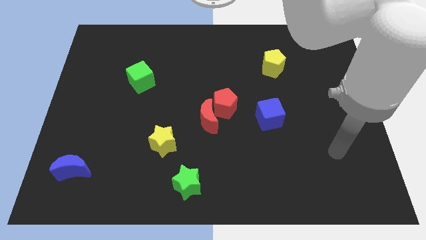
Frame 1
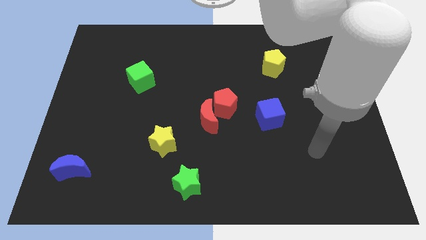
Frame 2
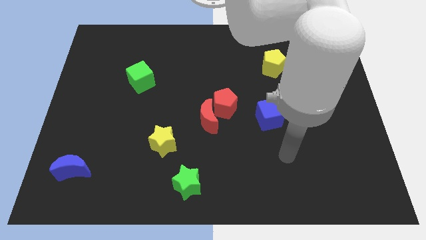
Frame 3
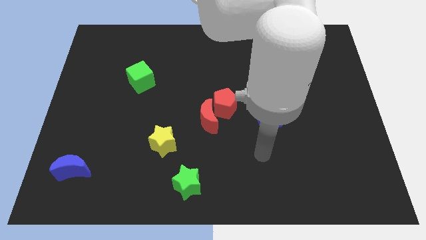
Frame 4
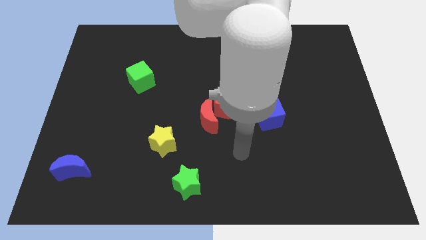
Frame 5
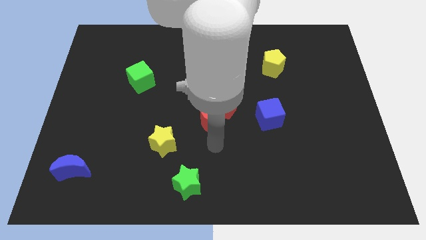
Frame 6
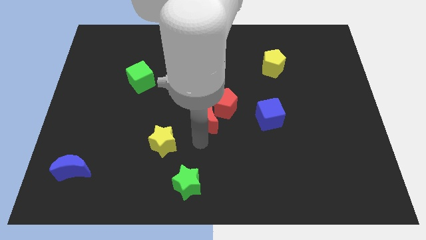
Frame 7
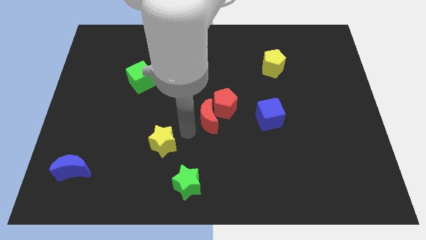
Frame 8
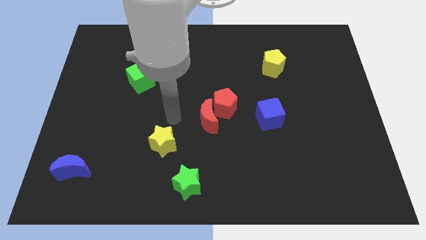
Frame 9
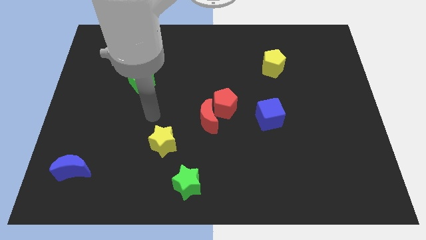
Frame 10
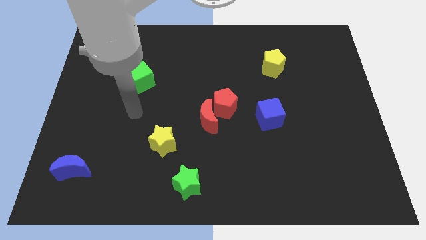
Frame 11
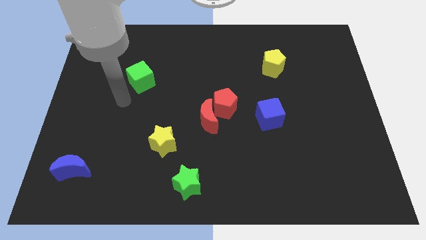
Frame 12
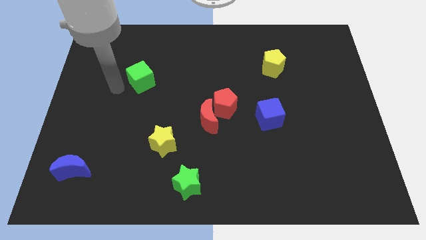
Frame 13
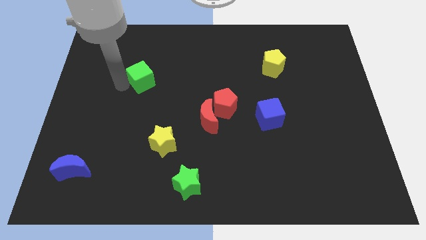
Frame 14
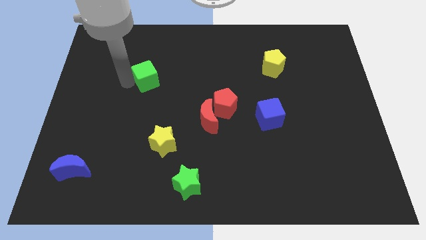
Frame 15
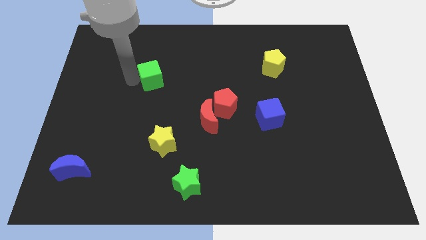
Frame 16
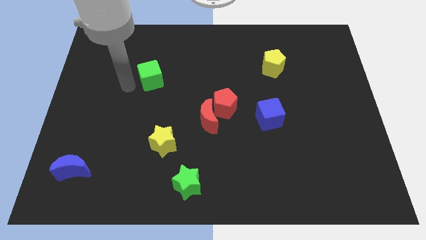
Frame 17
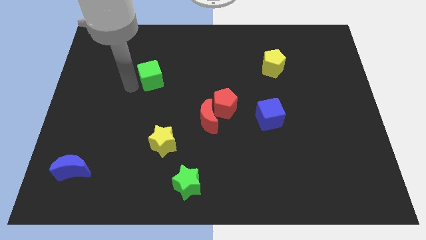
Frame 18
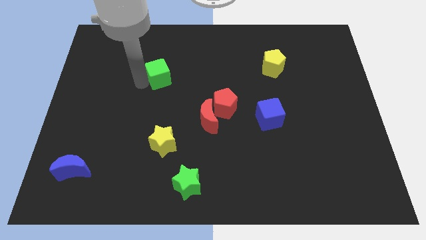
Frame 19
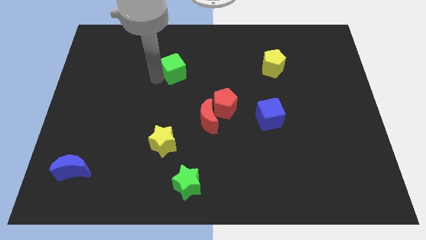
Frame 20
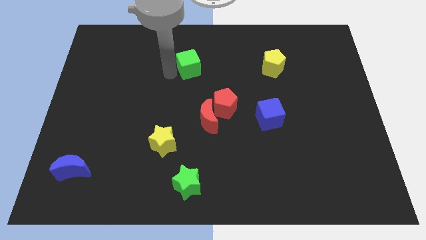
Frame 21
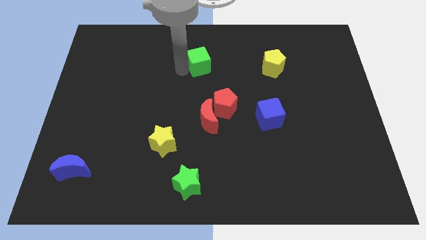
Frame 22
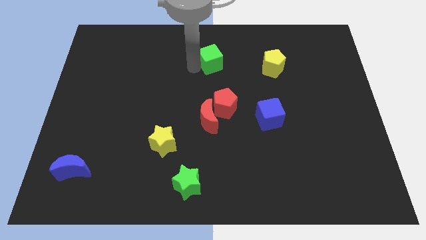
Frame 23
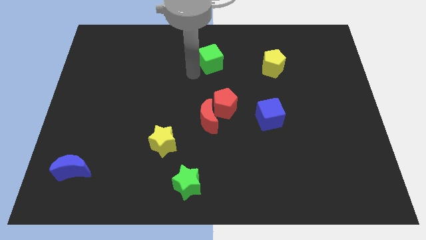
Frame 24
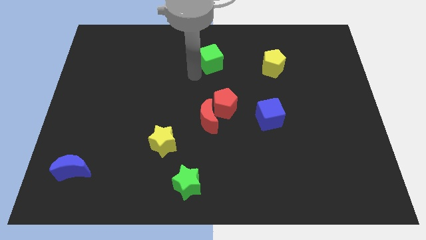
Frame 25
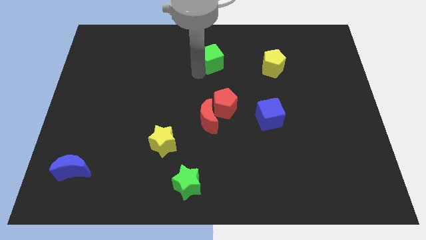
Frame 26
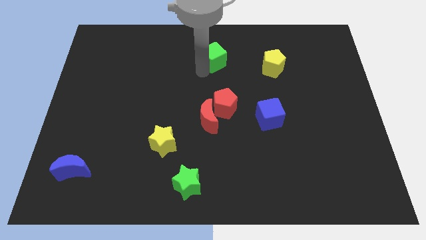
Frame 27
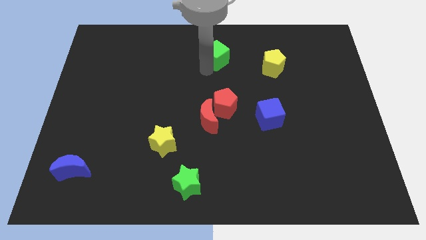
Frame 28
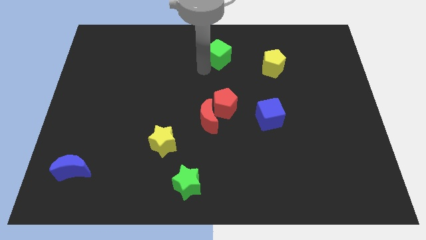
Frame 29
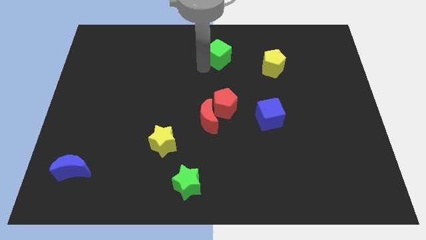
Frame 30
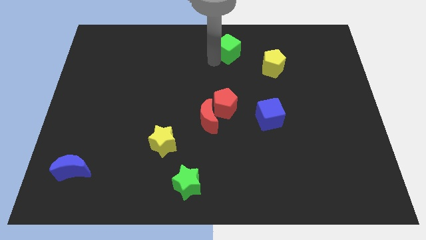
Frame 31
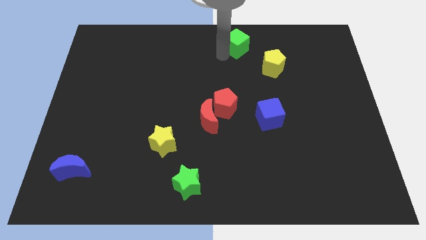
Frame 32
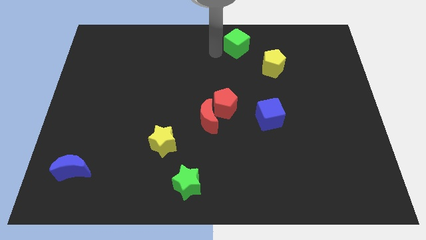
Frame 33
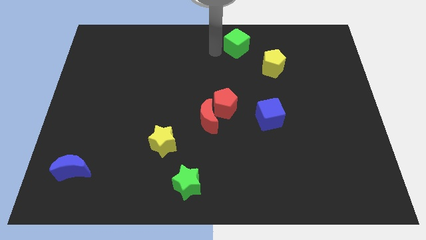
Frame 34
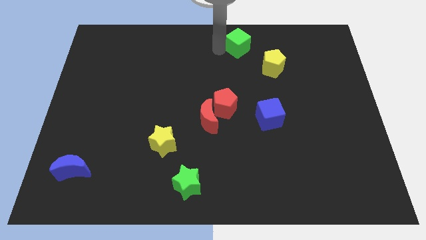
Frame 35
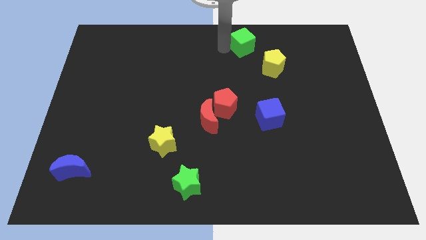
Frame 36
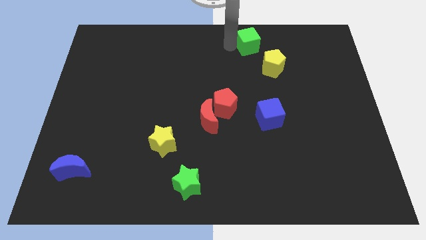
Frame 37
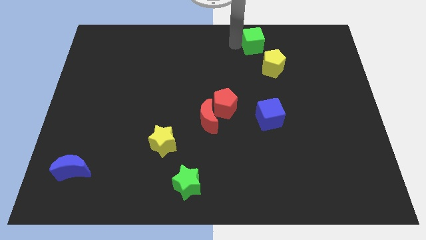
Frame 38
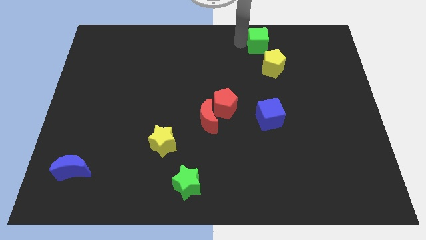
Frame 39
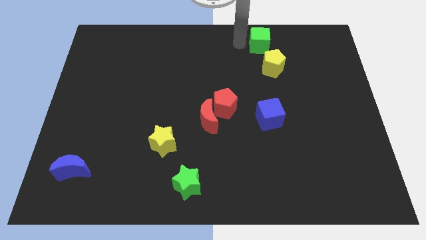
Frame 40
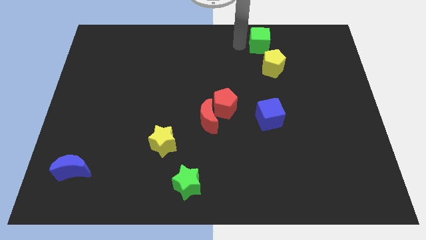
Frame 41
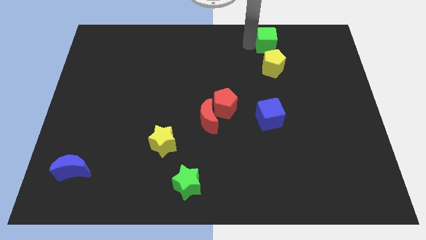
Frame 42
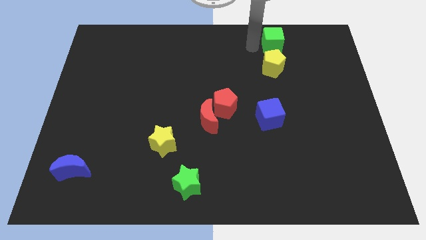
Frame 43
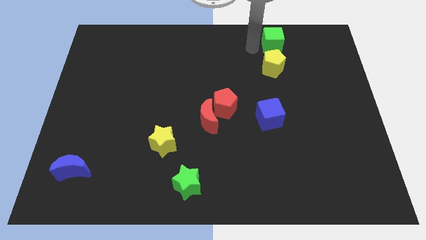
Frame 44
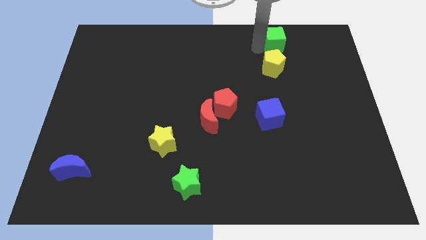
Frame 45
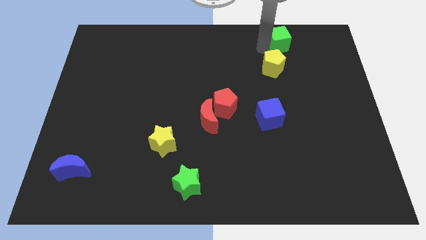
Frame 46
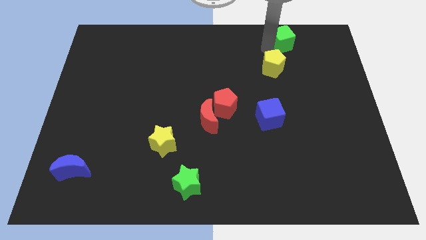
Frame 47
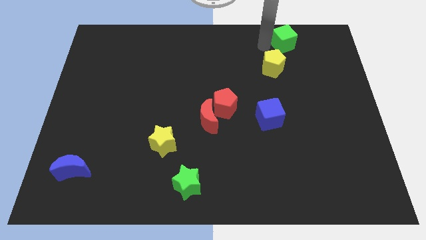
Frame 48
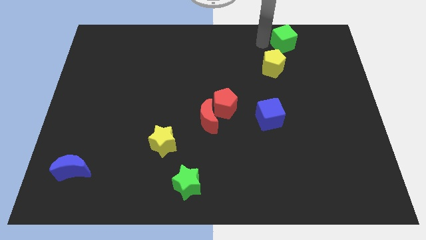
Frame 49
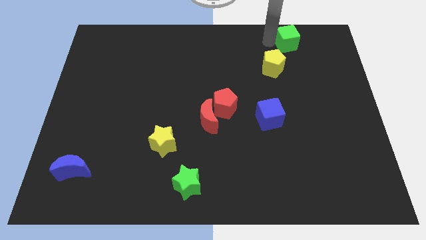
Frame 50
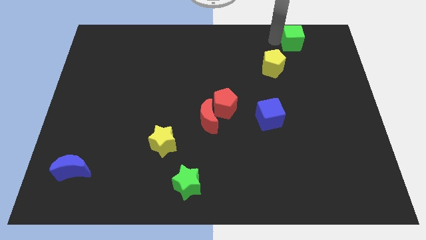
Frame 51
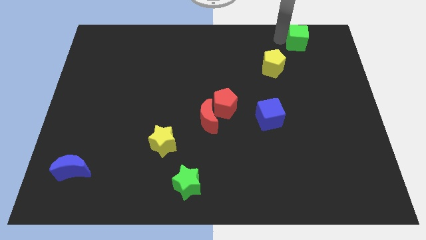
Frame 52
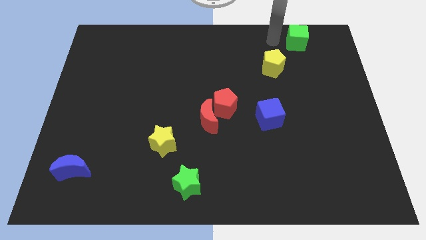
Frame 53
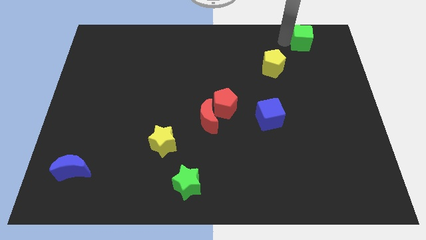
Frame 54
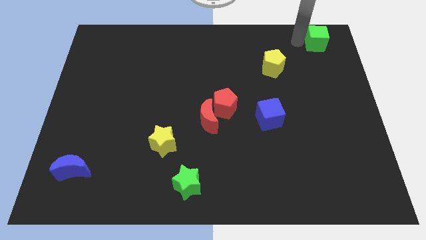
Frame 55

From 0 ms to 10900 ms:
put the green cube to the top right of the board
